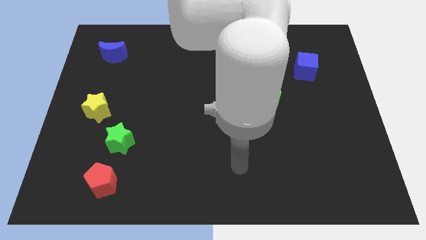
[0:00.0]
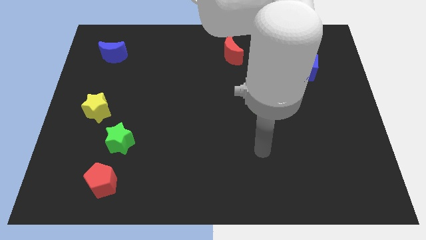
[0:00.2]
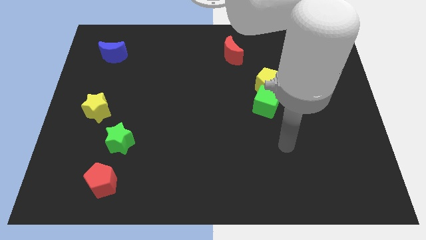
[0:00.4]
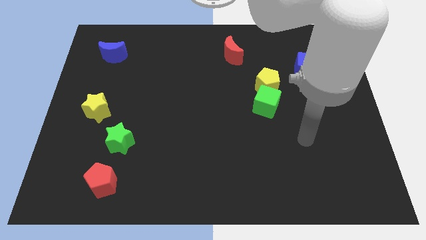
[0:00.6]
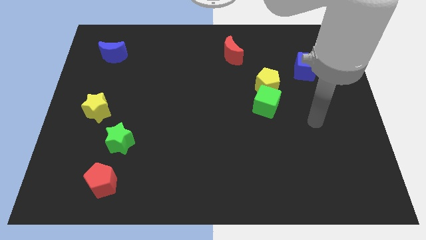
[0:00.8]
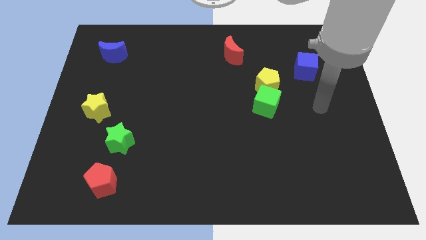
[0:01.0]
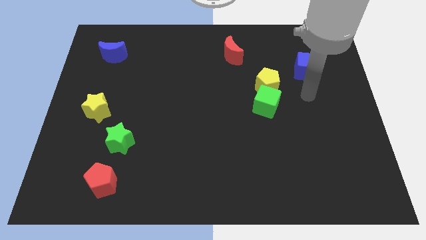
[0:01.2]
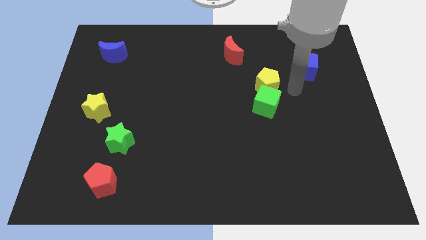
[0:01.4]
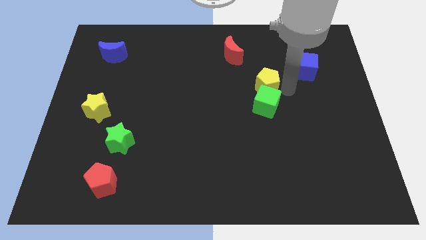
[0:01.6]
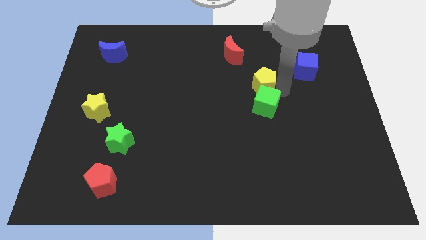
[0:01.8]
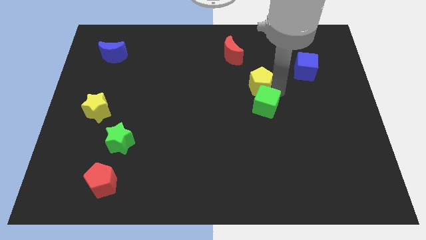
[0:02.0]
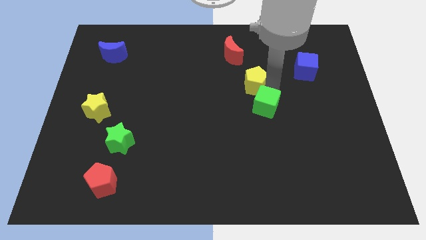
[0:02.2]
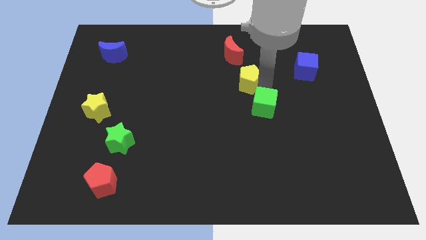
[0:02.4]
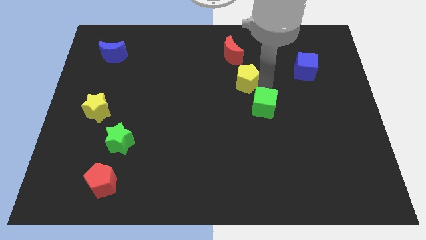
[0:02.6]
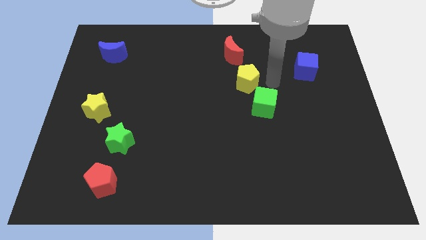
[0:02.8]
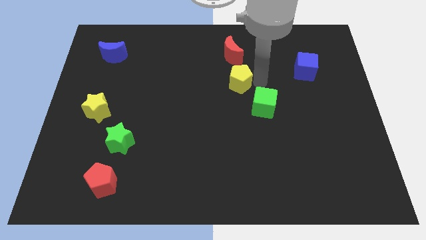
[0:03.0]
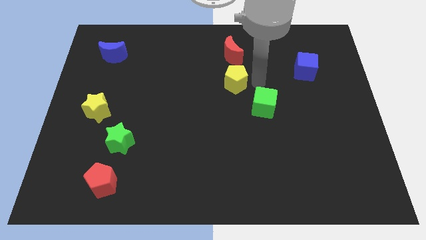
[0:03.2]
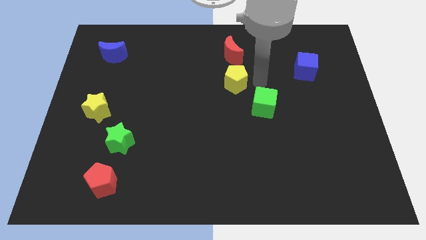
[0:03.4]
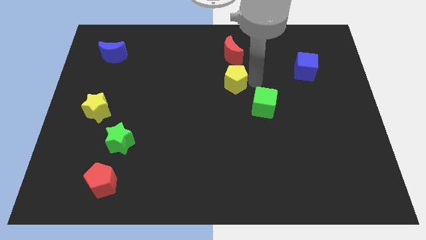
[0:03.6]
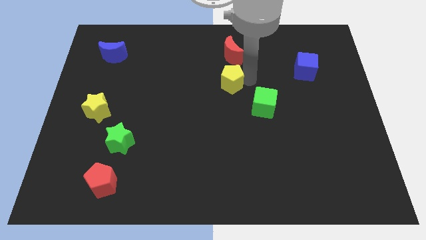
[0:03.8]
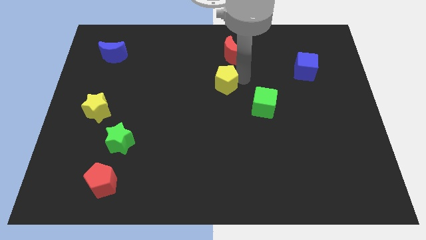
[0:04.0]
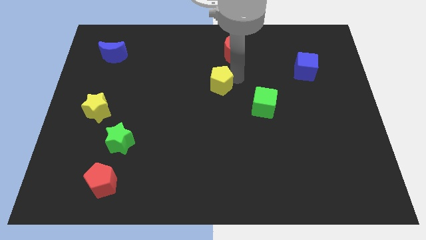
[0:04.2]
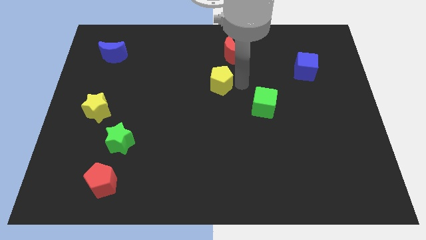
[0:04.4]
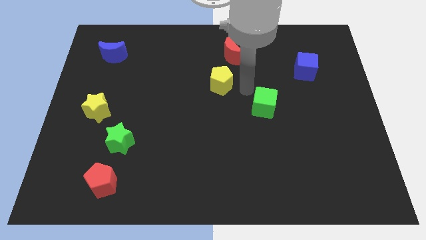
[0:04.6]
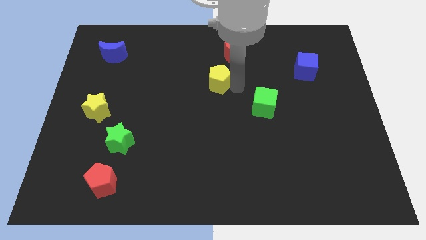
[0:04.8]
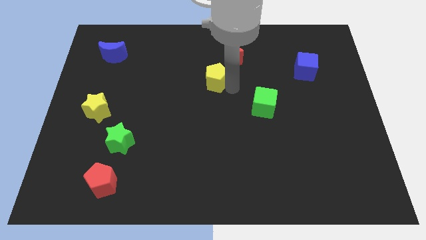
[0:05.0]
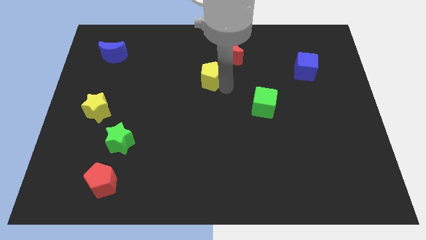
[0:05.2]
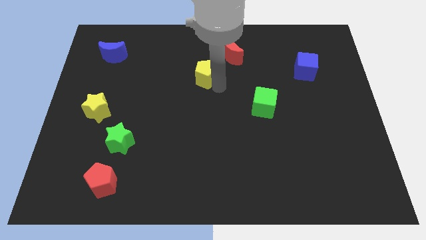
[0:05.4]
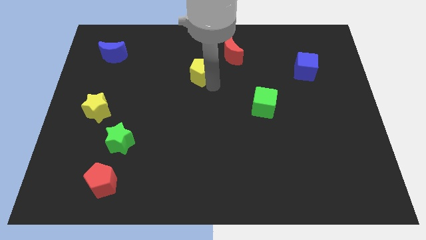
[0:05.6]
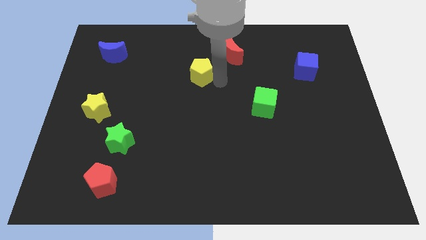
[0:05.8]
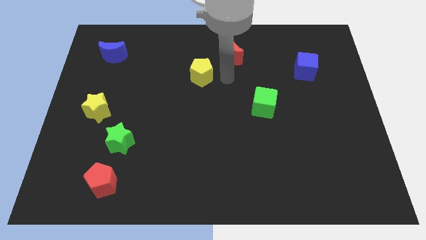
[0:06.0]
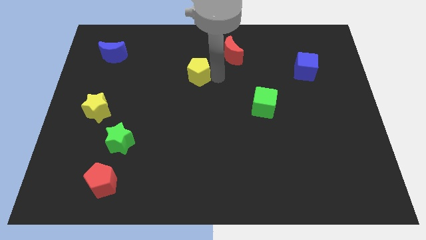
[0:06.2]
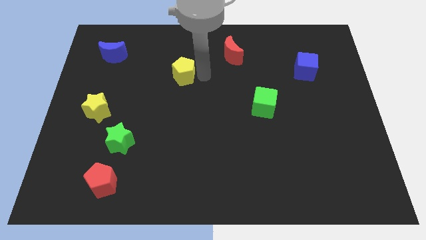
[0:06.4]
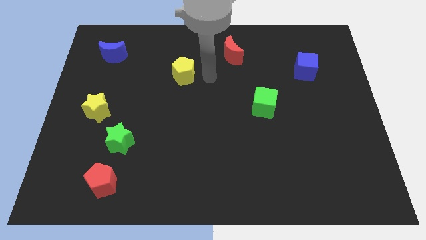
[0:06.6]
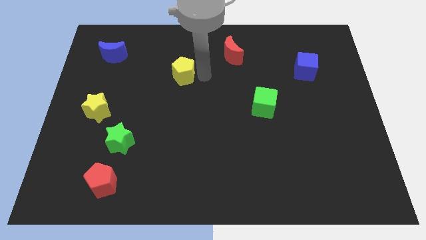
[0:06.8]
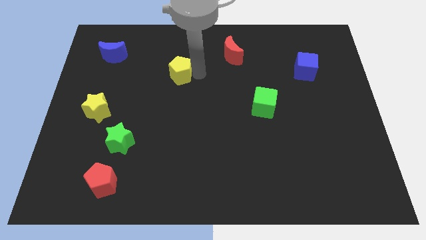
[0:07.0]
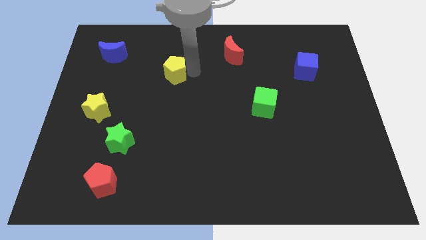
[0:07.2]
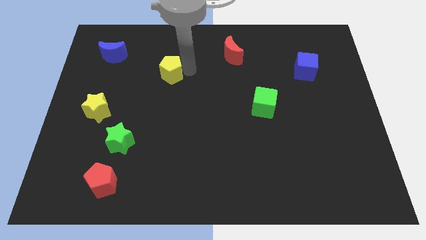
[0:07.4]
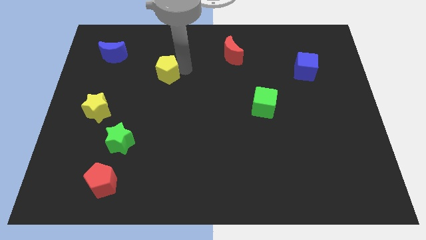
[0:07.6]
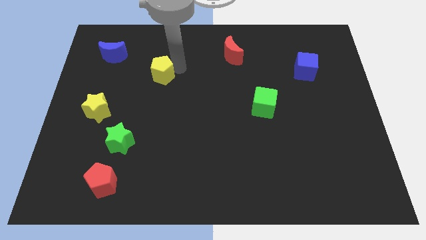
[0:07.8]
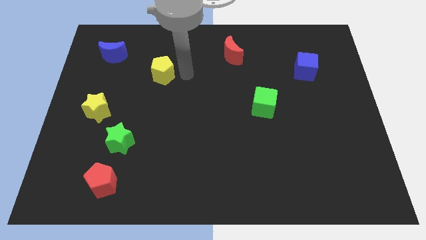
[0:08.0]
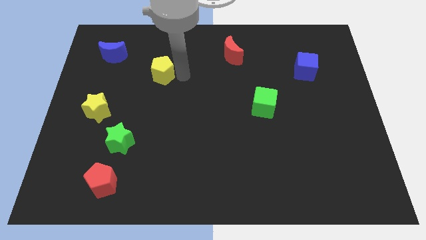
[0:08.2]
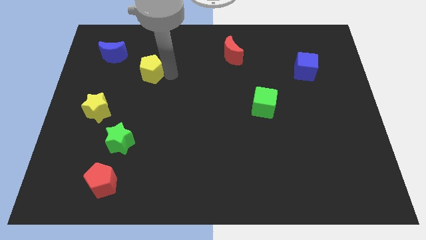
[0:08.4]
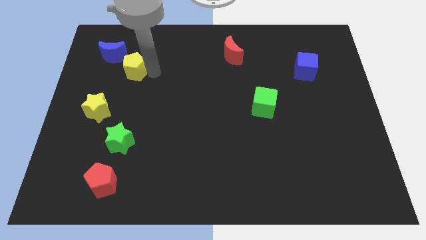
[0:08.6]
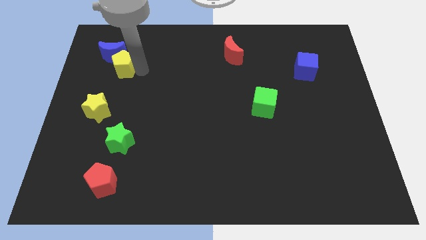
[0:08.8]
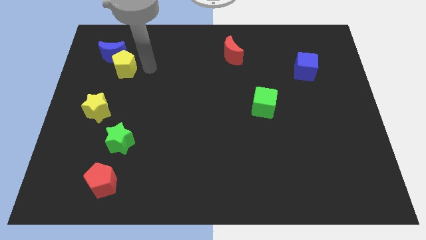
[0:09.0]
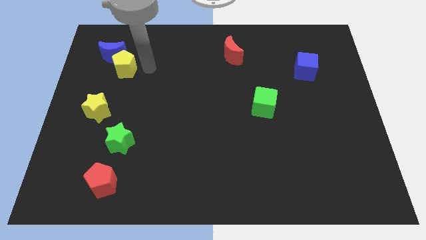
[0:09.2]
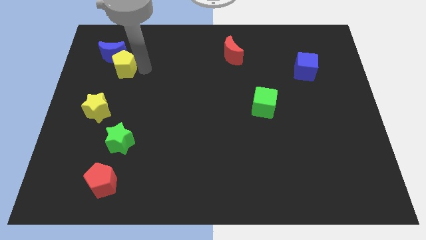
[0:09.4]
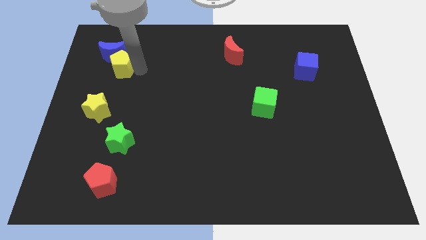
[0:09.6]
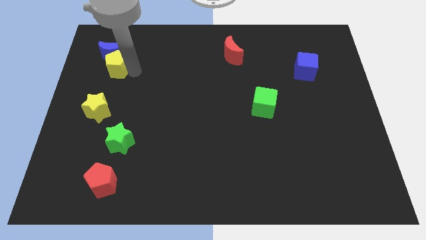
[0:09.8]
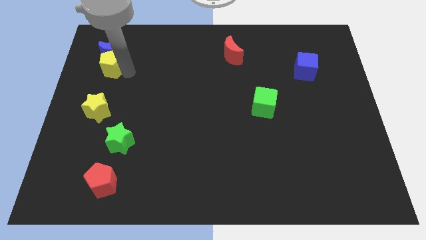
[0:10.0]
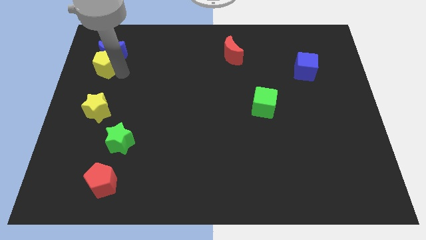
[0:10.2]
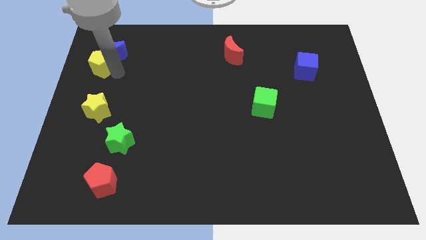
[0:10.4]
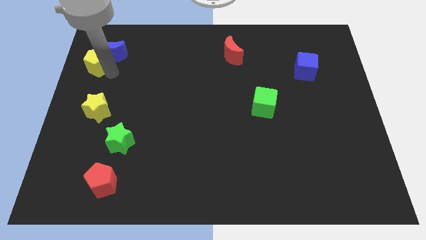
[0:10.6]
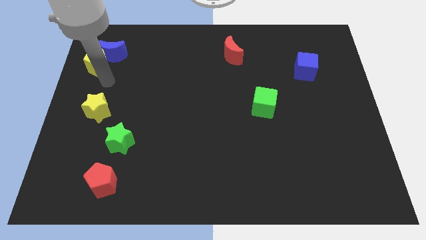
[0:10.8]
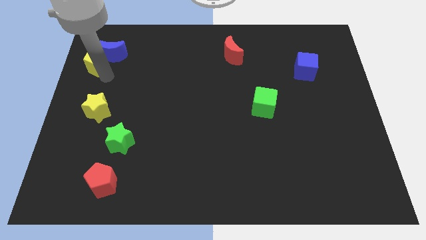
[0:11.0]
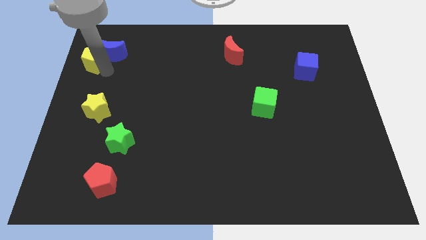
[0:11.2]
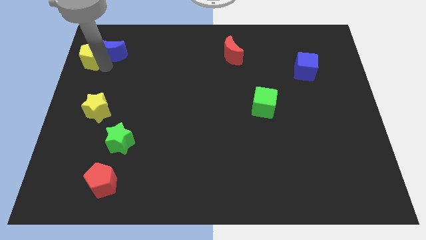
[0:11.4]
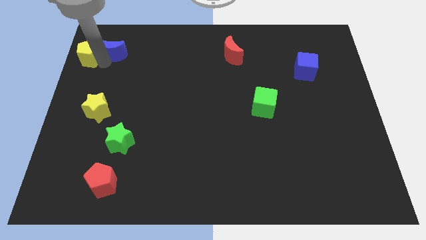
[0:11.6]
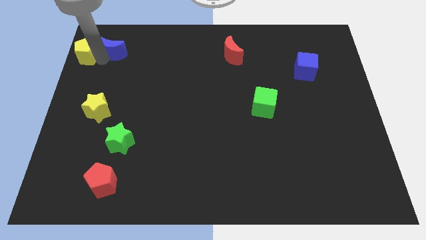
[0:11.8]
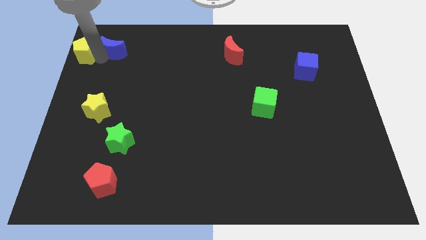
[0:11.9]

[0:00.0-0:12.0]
move the yellow pentagon to the top left

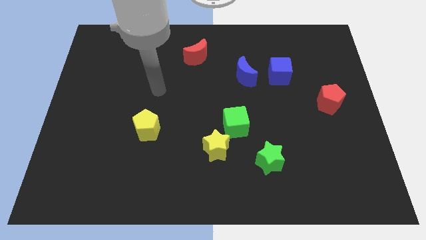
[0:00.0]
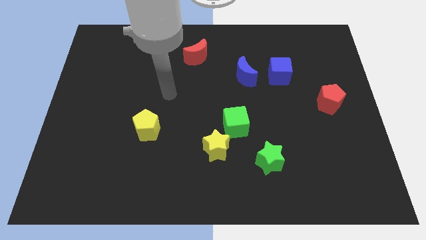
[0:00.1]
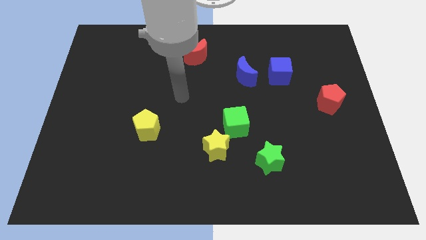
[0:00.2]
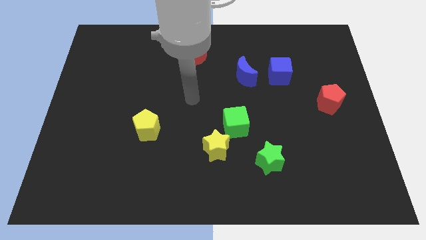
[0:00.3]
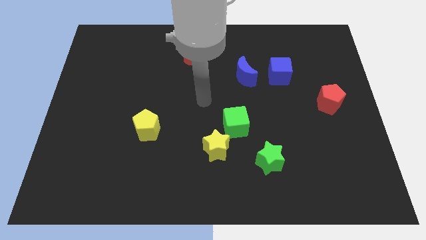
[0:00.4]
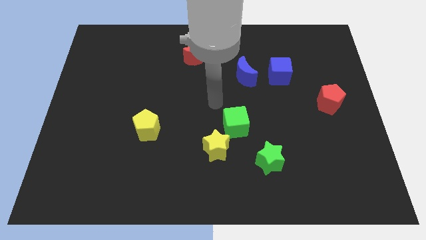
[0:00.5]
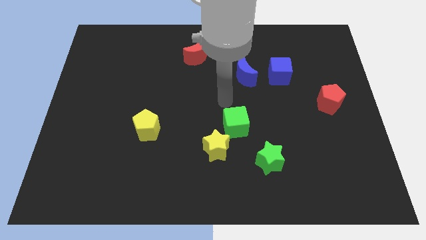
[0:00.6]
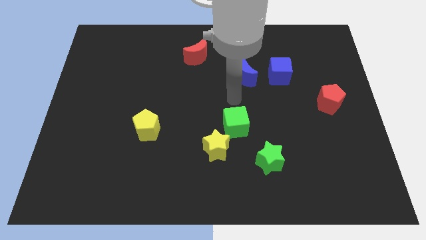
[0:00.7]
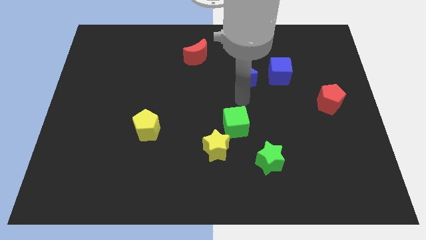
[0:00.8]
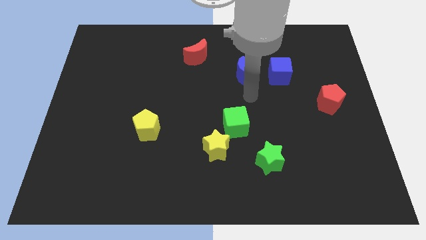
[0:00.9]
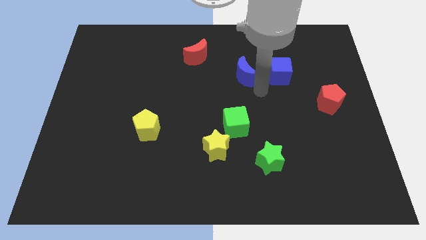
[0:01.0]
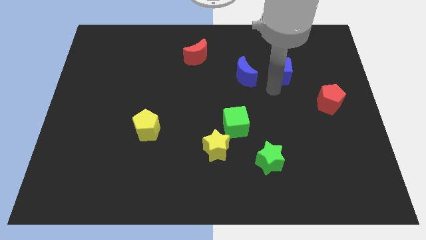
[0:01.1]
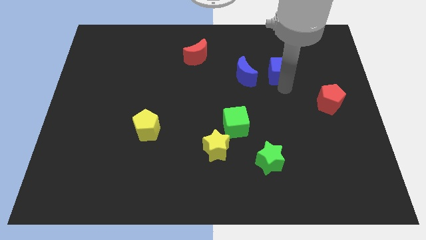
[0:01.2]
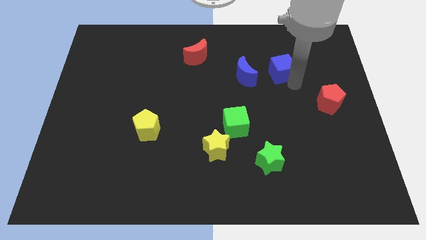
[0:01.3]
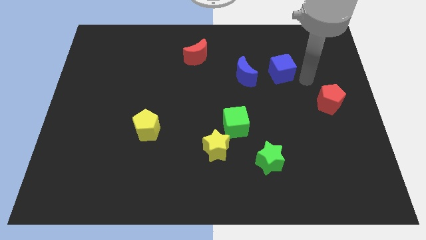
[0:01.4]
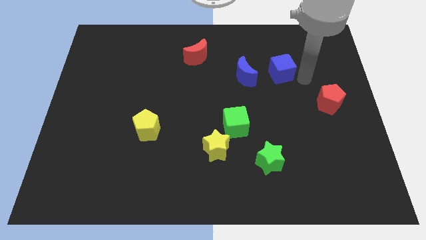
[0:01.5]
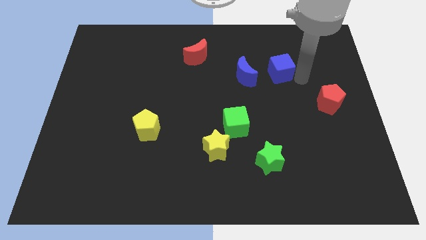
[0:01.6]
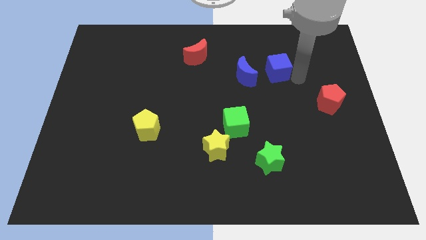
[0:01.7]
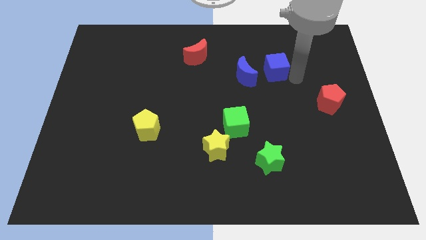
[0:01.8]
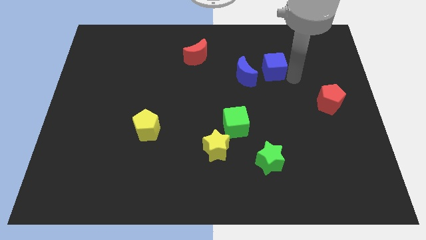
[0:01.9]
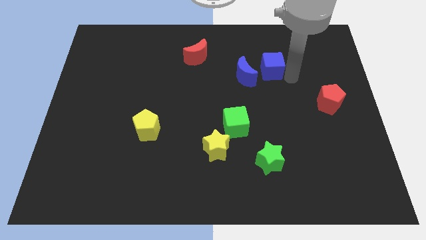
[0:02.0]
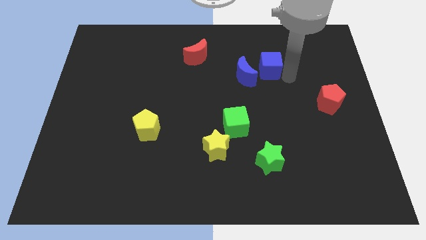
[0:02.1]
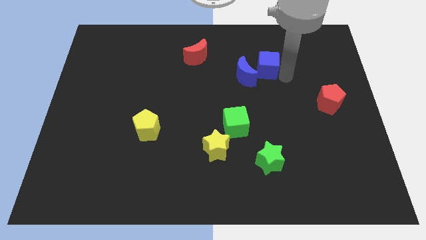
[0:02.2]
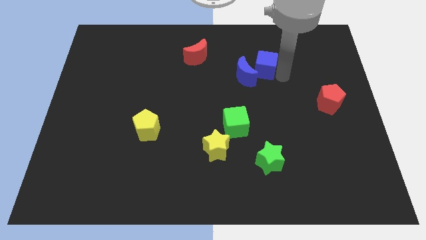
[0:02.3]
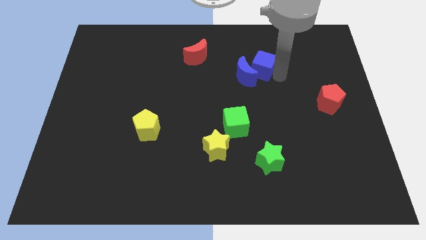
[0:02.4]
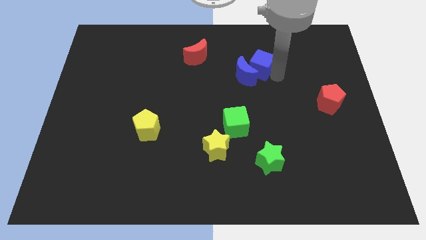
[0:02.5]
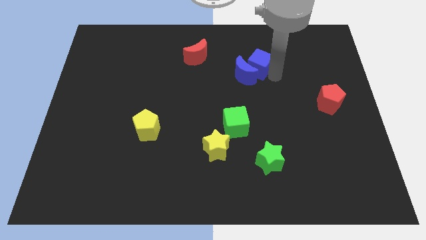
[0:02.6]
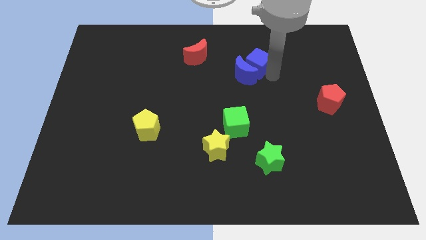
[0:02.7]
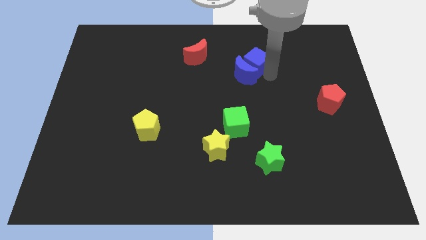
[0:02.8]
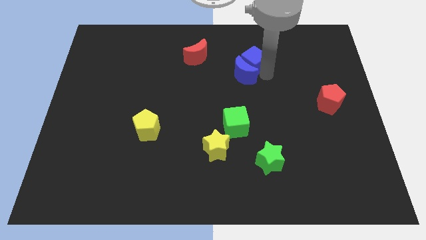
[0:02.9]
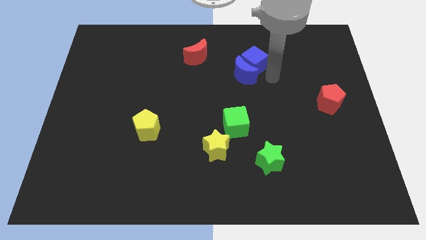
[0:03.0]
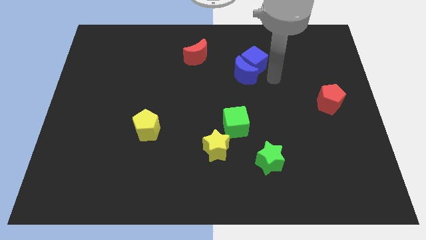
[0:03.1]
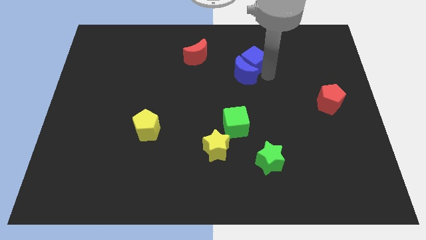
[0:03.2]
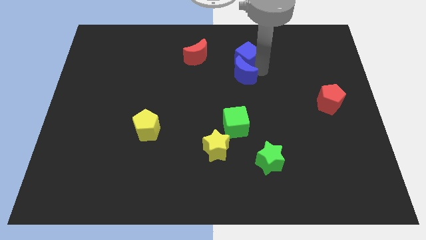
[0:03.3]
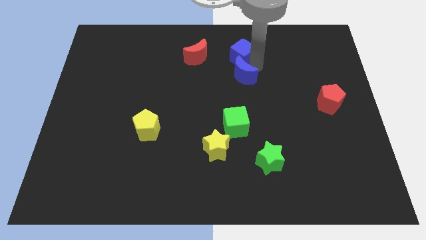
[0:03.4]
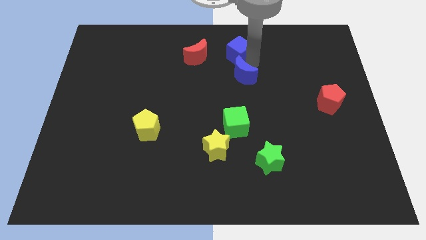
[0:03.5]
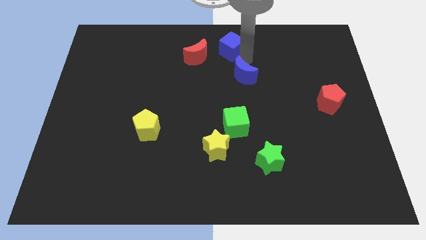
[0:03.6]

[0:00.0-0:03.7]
put the blue cube to the top
